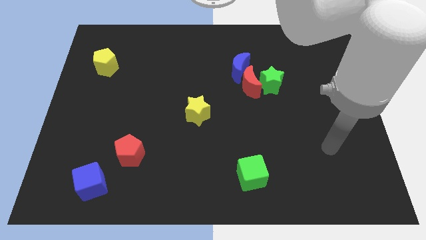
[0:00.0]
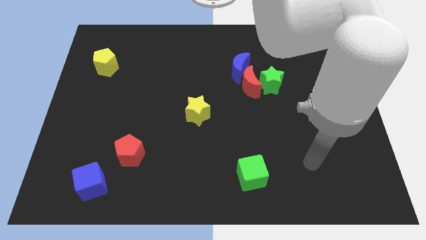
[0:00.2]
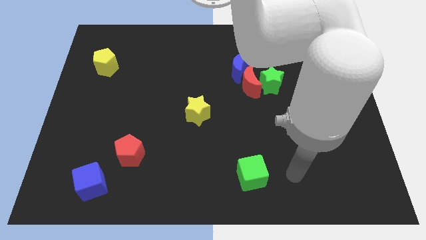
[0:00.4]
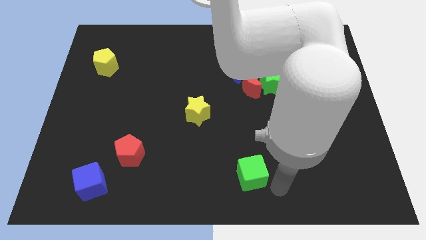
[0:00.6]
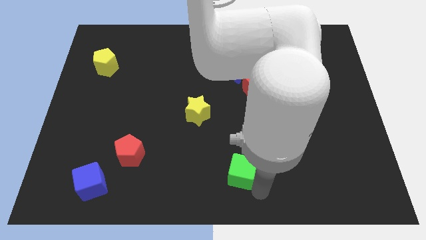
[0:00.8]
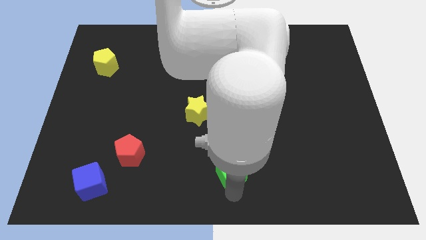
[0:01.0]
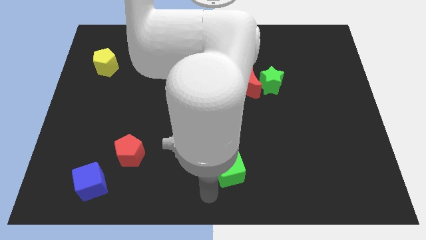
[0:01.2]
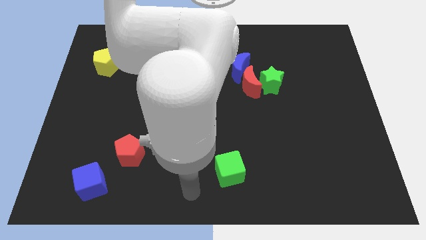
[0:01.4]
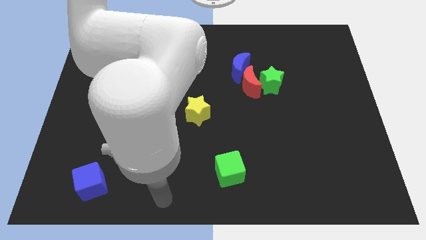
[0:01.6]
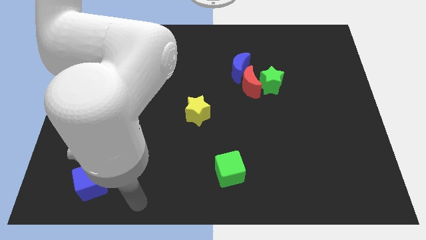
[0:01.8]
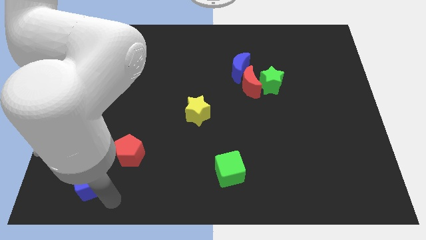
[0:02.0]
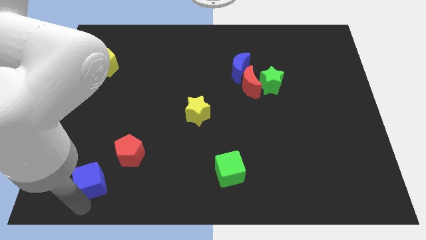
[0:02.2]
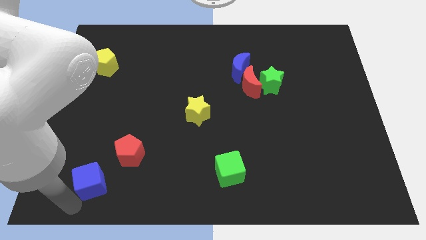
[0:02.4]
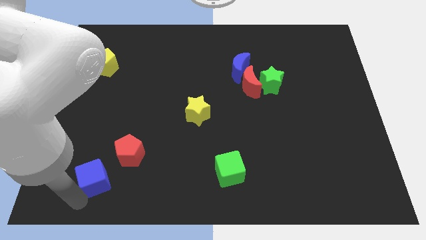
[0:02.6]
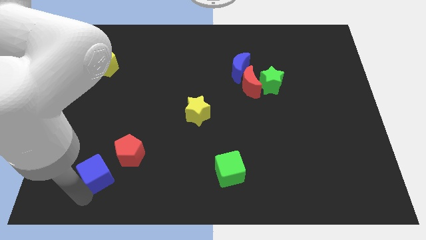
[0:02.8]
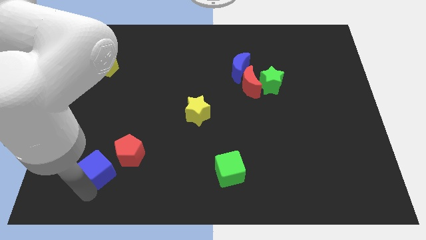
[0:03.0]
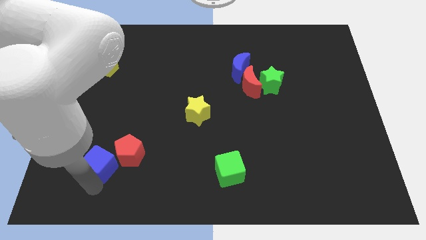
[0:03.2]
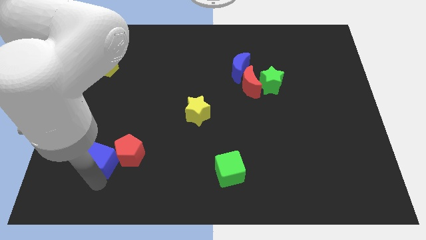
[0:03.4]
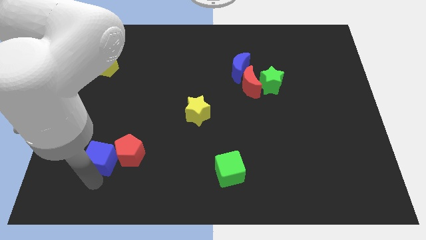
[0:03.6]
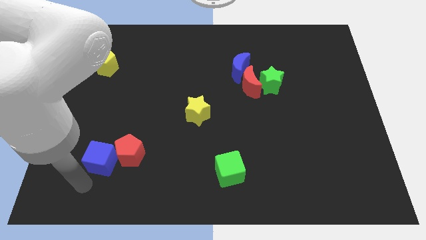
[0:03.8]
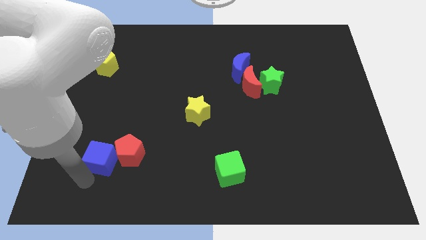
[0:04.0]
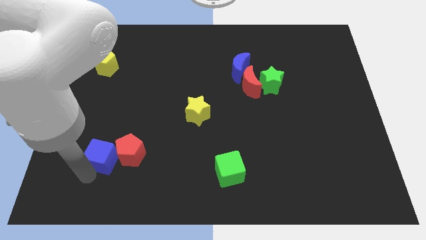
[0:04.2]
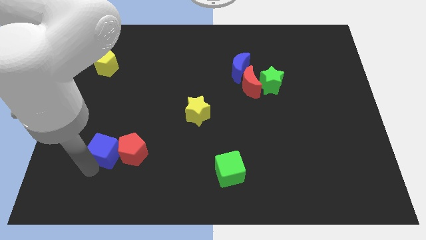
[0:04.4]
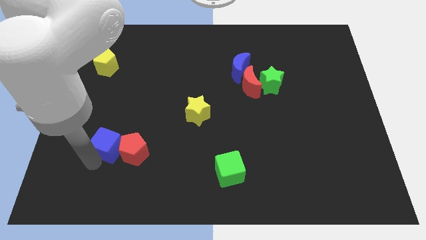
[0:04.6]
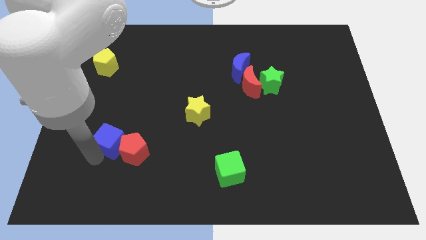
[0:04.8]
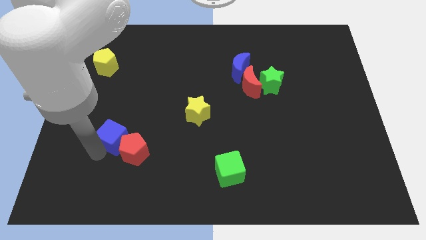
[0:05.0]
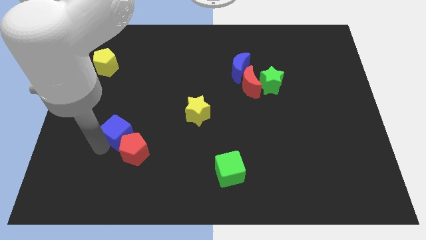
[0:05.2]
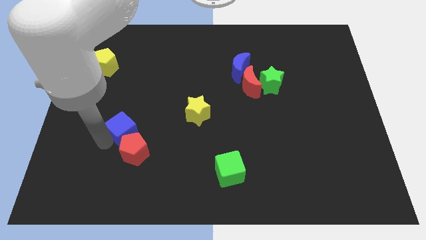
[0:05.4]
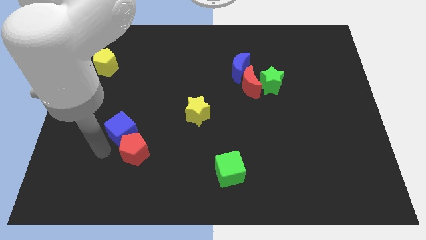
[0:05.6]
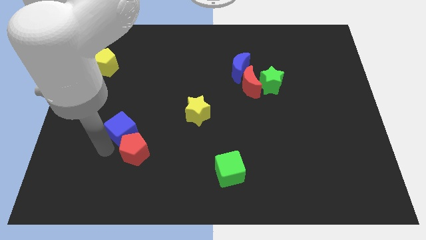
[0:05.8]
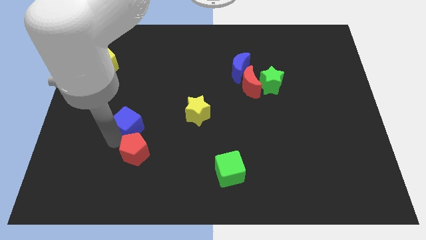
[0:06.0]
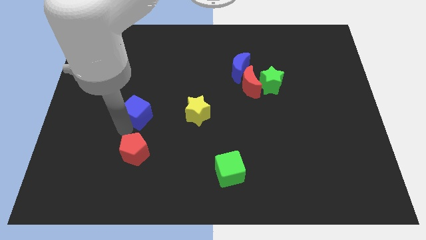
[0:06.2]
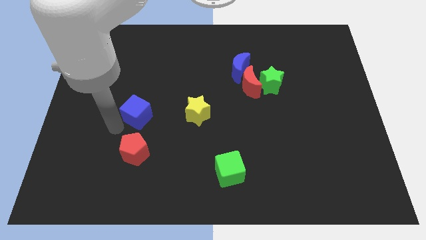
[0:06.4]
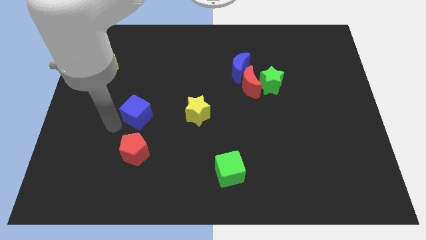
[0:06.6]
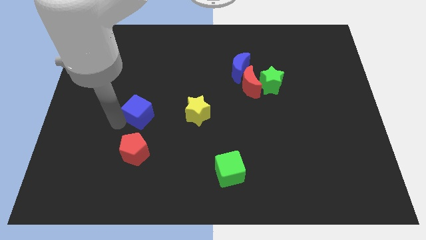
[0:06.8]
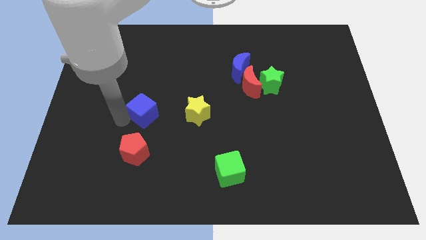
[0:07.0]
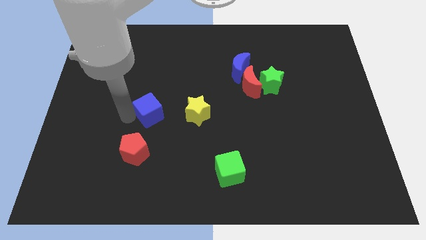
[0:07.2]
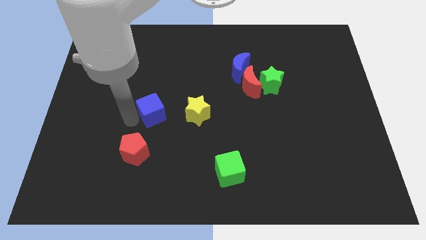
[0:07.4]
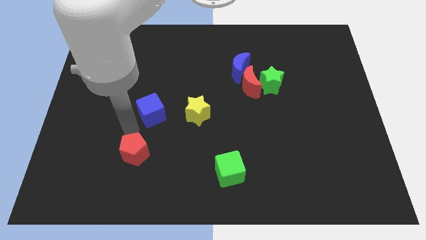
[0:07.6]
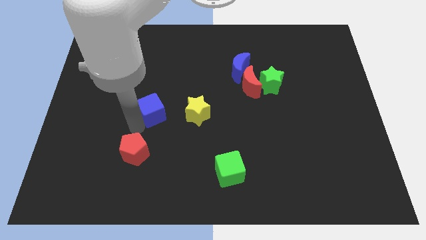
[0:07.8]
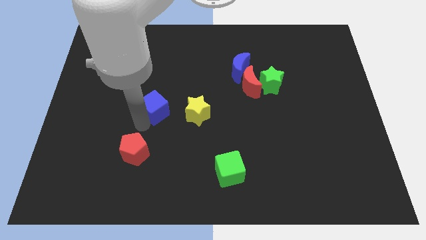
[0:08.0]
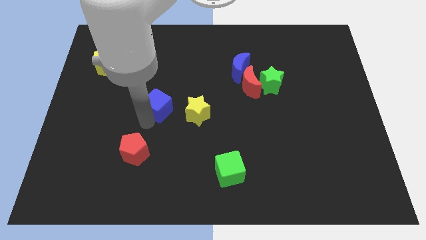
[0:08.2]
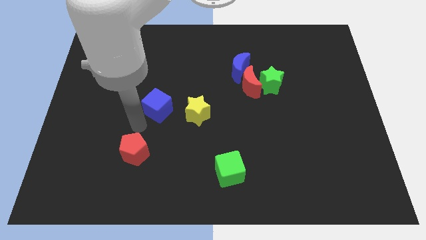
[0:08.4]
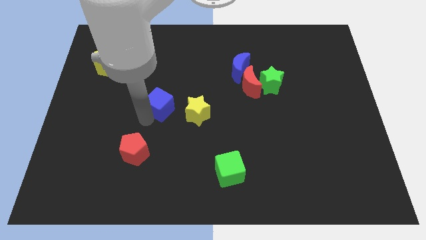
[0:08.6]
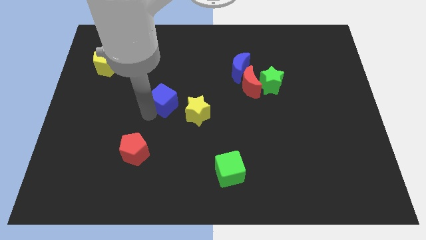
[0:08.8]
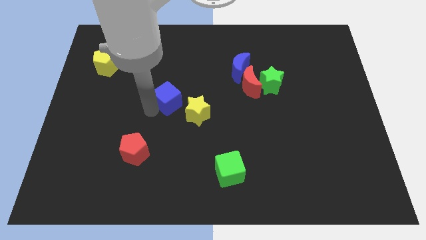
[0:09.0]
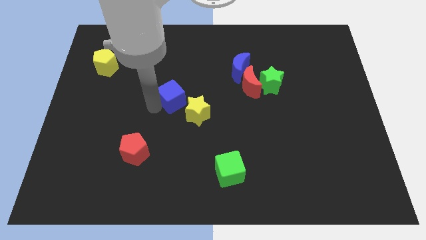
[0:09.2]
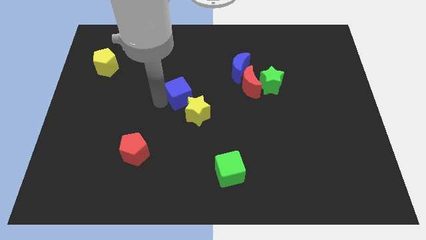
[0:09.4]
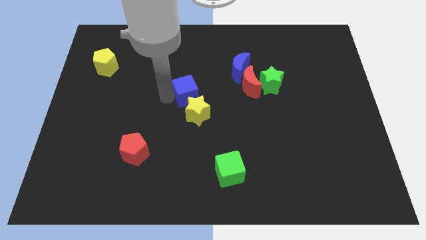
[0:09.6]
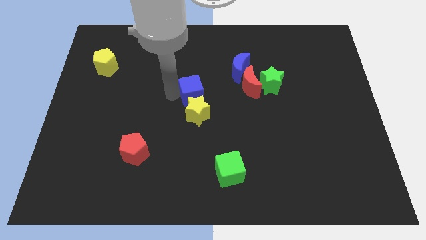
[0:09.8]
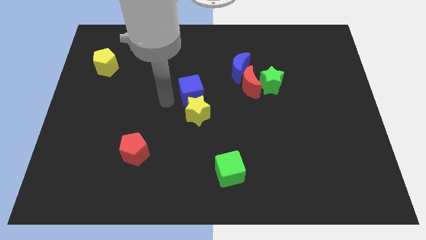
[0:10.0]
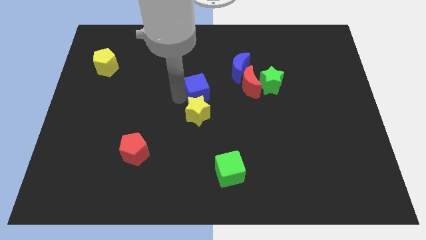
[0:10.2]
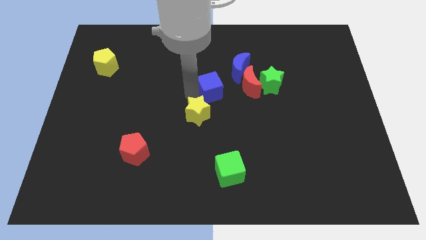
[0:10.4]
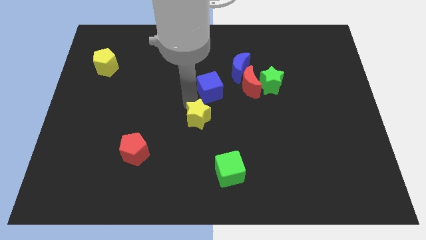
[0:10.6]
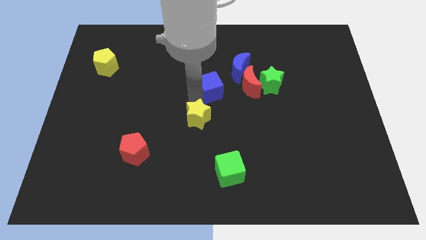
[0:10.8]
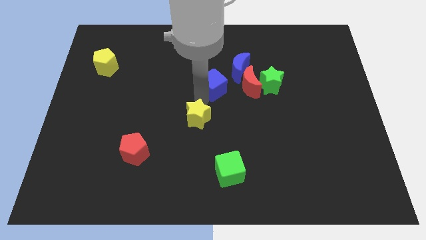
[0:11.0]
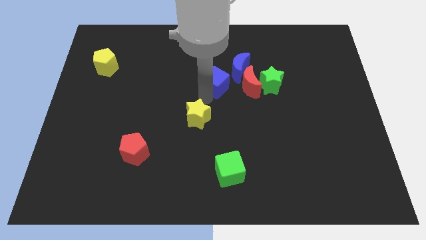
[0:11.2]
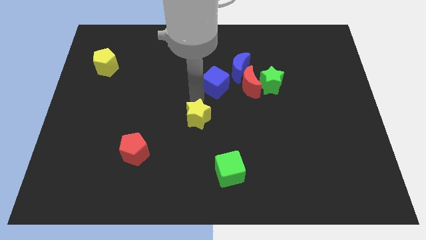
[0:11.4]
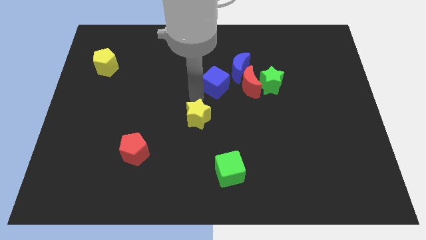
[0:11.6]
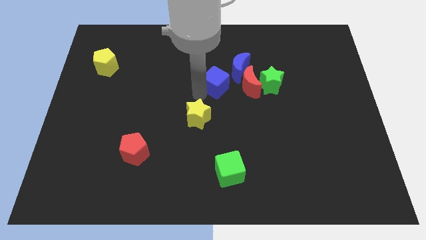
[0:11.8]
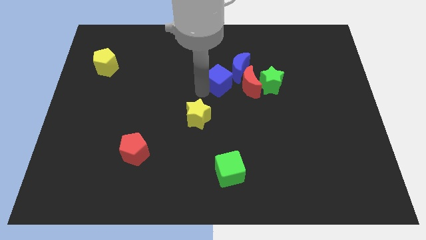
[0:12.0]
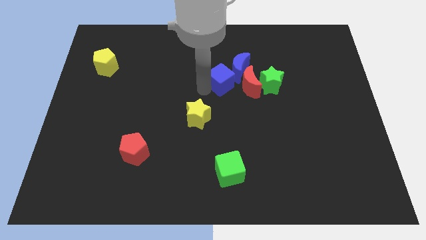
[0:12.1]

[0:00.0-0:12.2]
push the blue cube close to the blue moon
